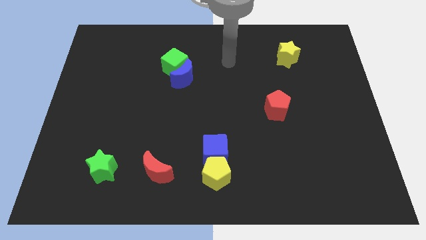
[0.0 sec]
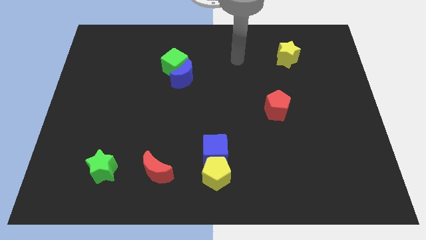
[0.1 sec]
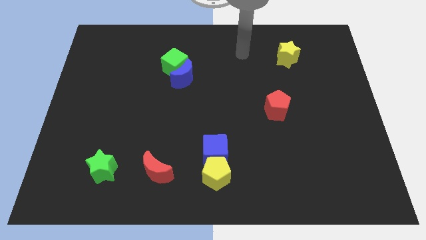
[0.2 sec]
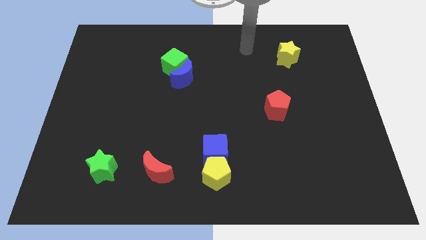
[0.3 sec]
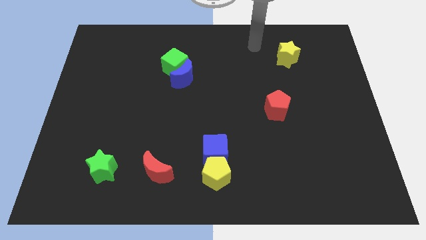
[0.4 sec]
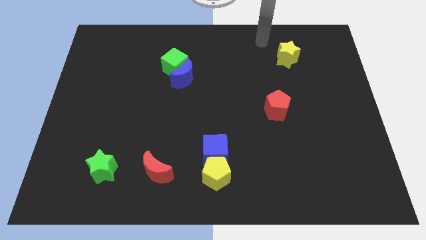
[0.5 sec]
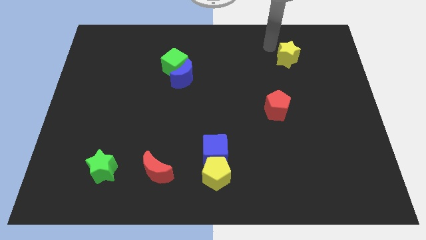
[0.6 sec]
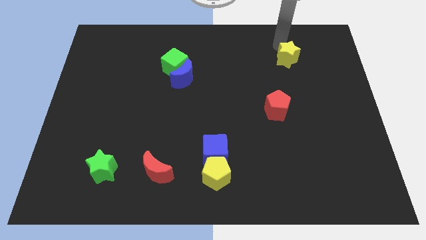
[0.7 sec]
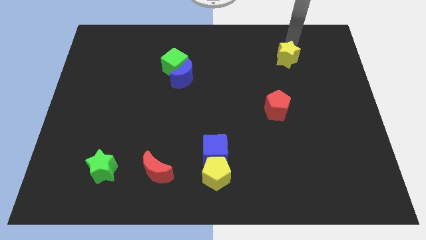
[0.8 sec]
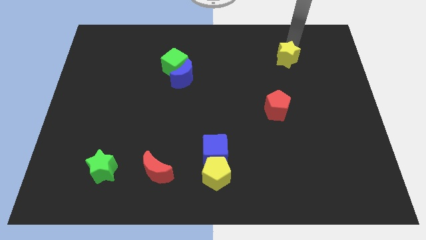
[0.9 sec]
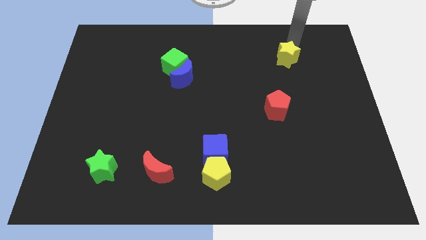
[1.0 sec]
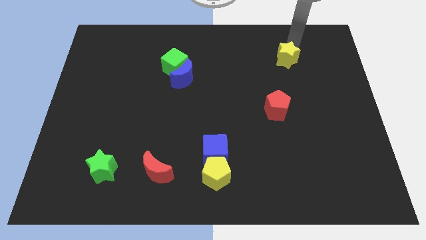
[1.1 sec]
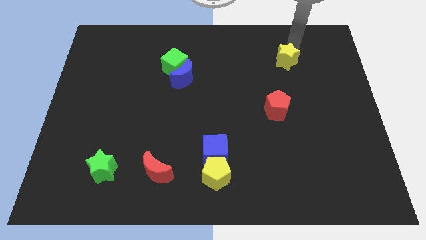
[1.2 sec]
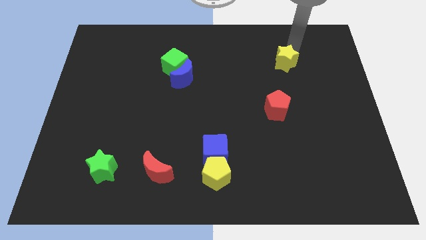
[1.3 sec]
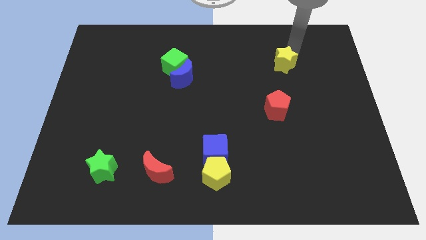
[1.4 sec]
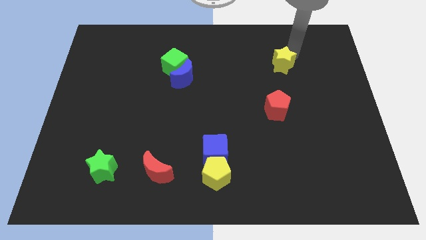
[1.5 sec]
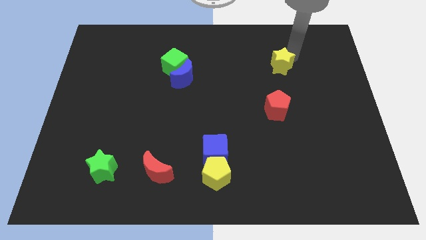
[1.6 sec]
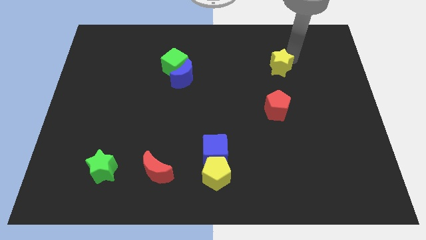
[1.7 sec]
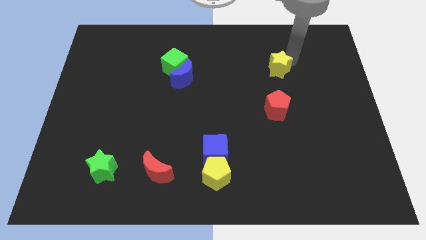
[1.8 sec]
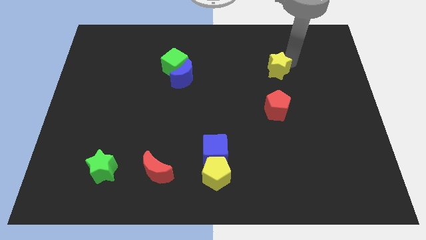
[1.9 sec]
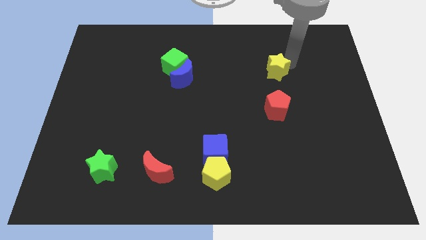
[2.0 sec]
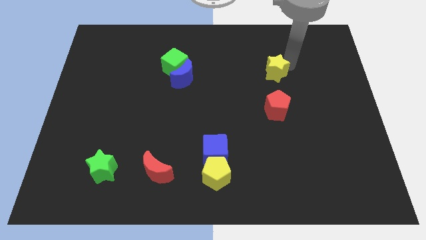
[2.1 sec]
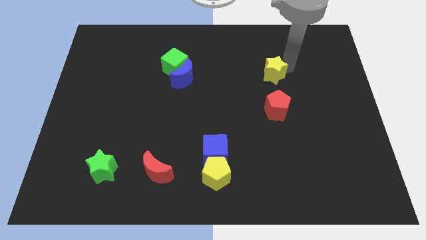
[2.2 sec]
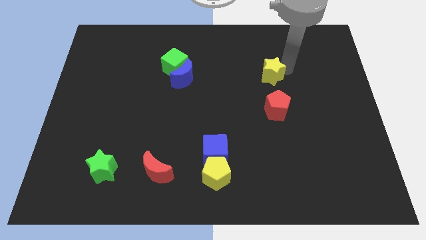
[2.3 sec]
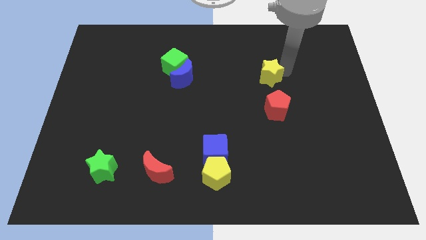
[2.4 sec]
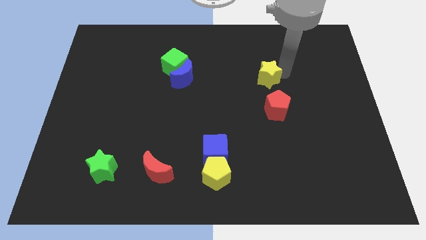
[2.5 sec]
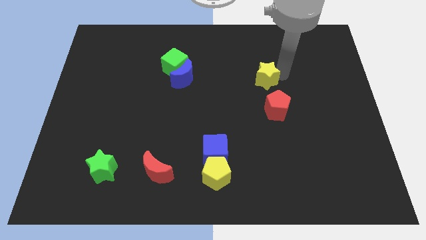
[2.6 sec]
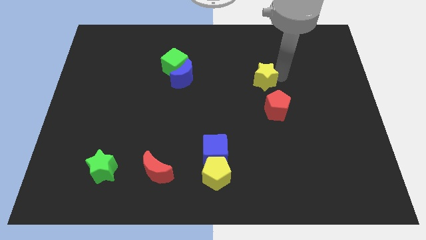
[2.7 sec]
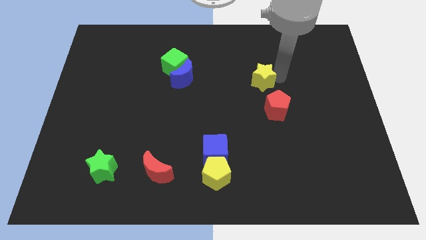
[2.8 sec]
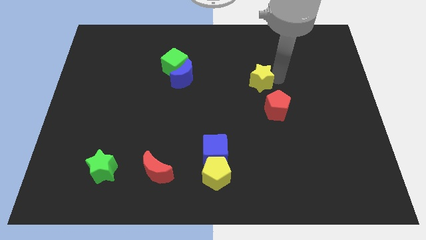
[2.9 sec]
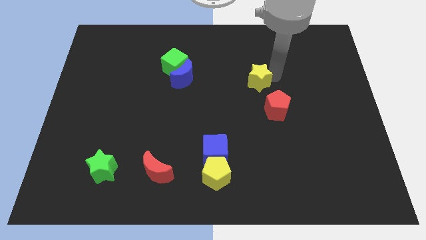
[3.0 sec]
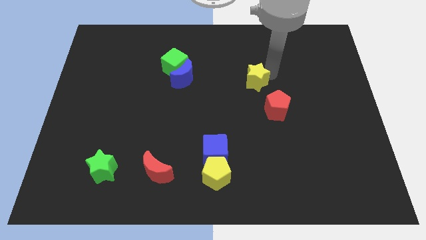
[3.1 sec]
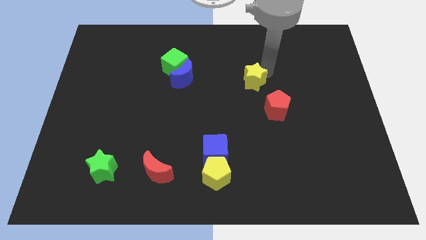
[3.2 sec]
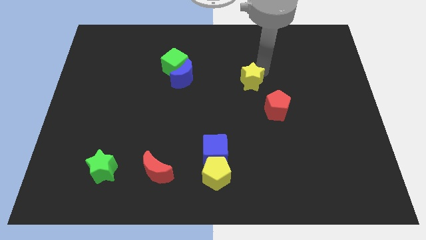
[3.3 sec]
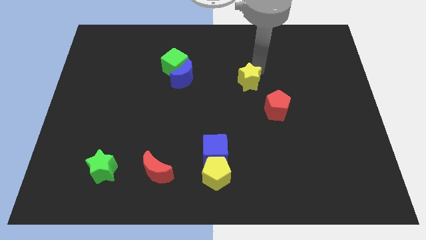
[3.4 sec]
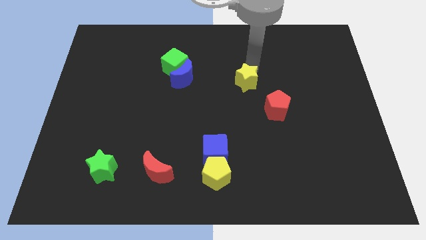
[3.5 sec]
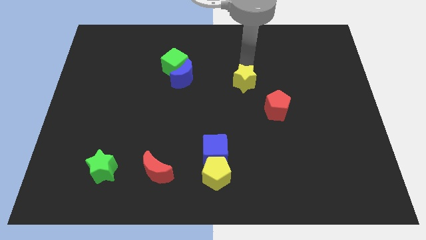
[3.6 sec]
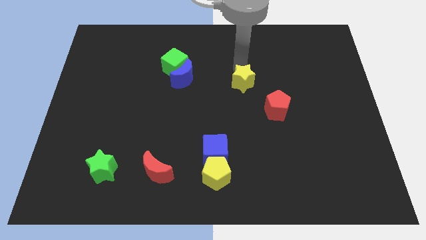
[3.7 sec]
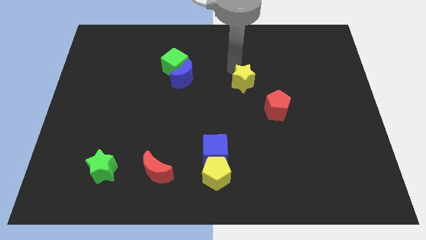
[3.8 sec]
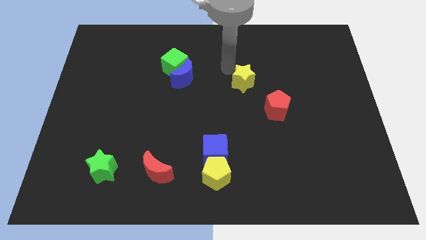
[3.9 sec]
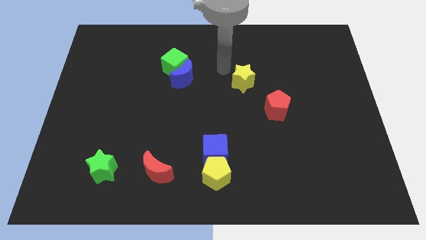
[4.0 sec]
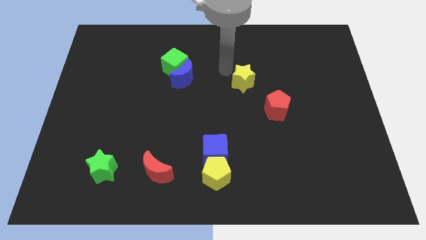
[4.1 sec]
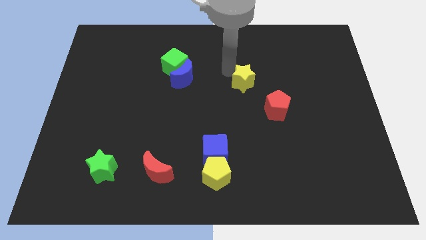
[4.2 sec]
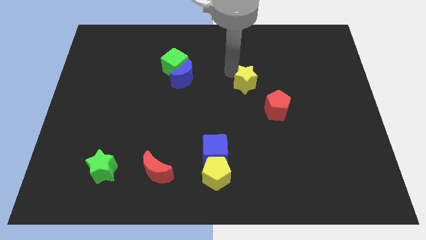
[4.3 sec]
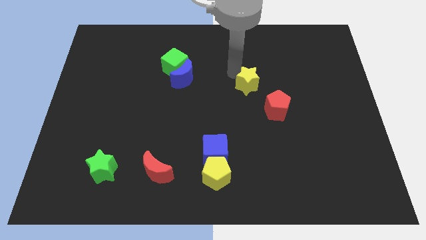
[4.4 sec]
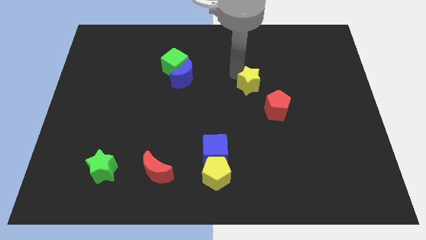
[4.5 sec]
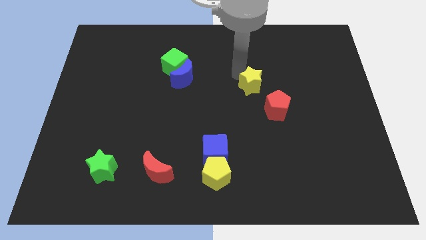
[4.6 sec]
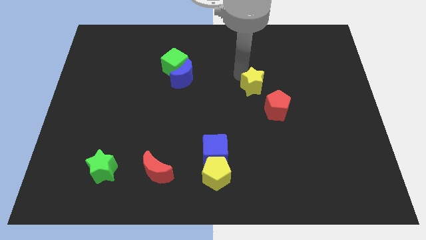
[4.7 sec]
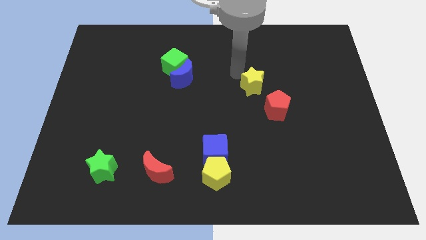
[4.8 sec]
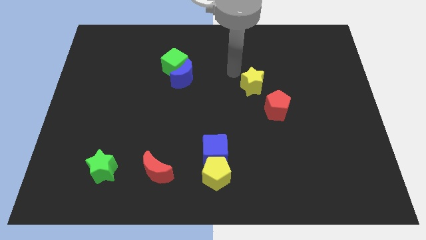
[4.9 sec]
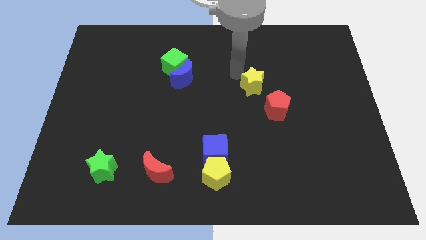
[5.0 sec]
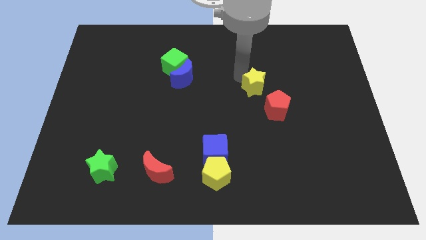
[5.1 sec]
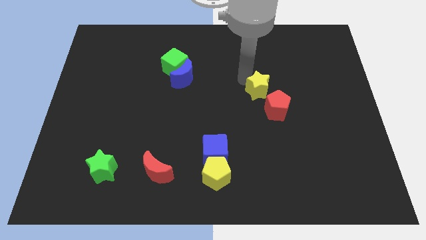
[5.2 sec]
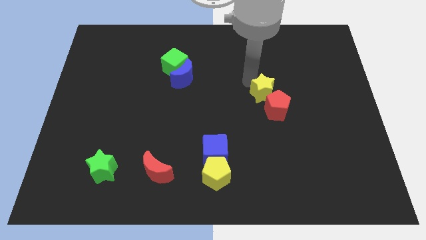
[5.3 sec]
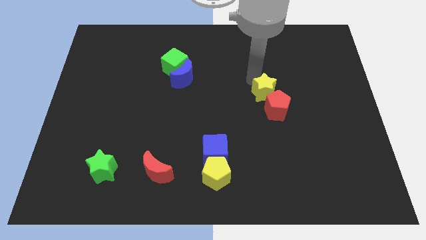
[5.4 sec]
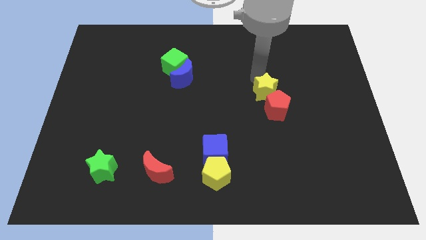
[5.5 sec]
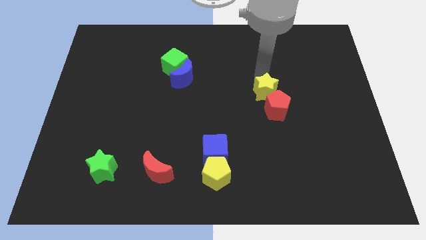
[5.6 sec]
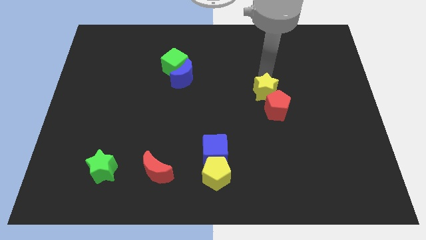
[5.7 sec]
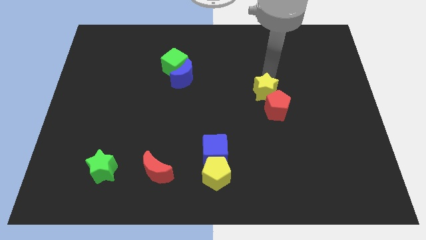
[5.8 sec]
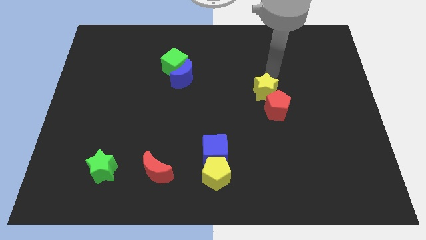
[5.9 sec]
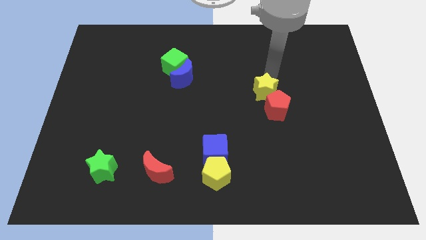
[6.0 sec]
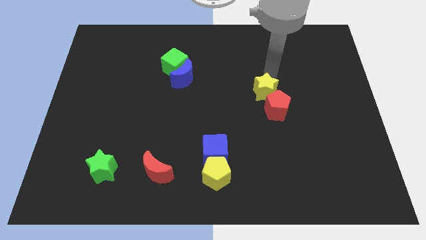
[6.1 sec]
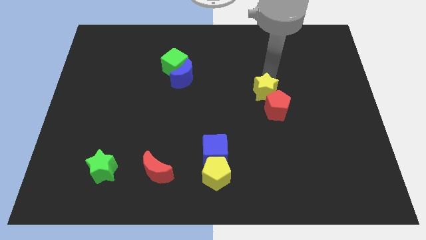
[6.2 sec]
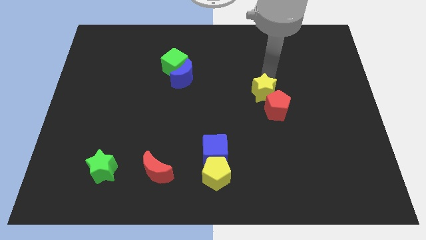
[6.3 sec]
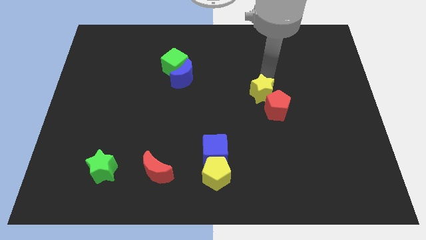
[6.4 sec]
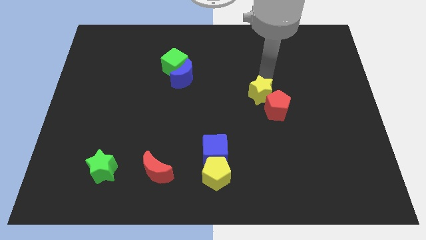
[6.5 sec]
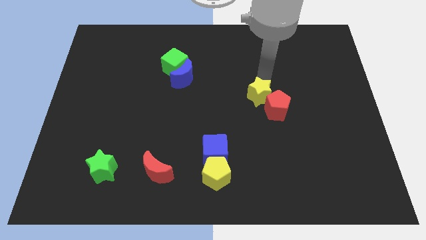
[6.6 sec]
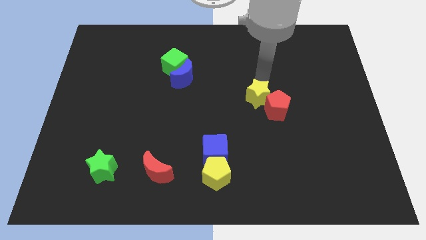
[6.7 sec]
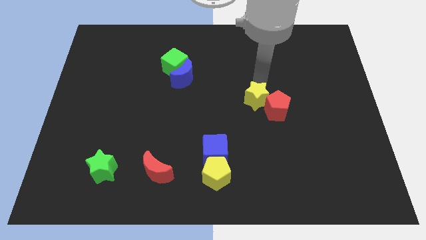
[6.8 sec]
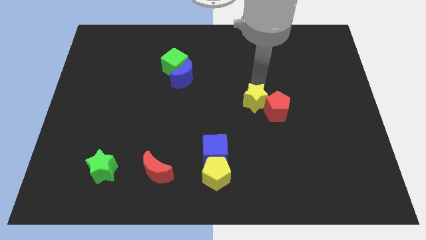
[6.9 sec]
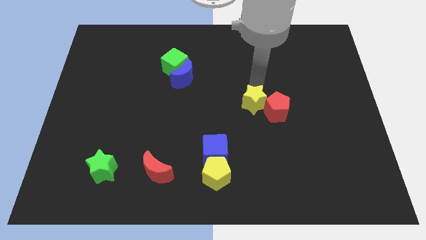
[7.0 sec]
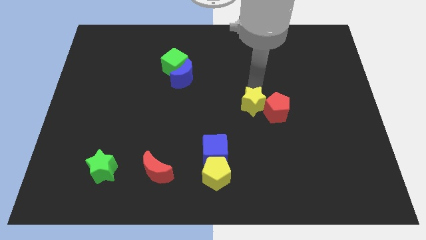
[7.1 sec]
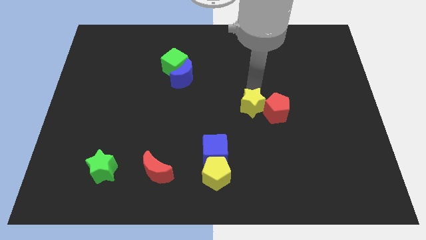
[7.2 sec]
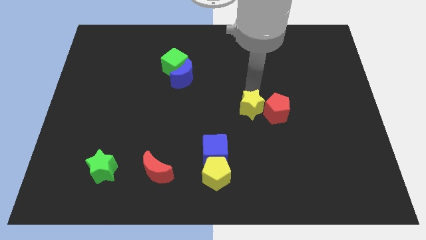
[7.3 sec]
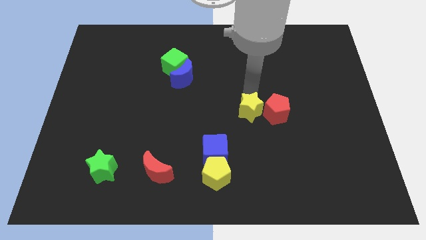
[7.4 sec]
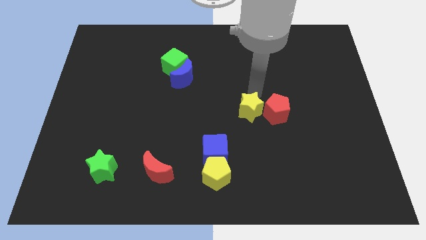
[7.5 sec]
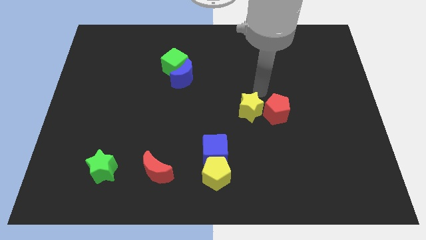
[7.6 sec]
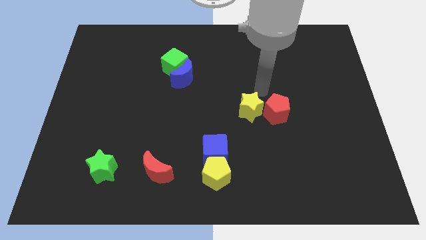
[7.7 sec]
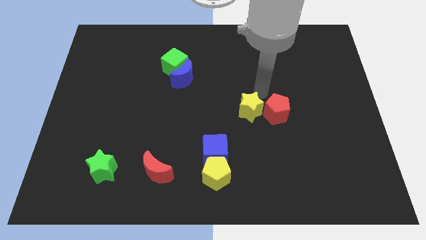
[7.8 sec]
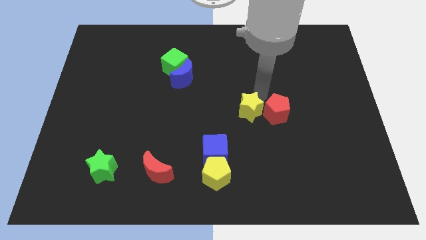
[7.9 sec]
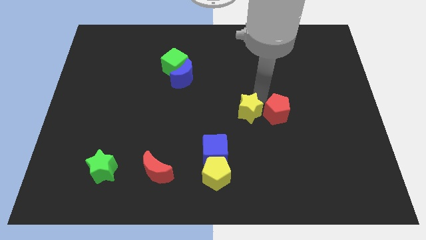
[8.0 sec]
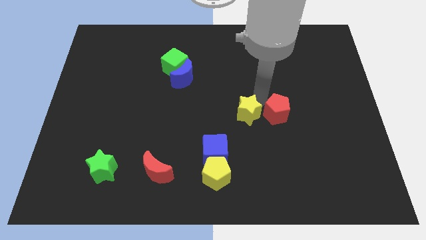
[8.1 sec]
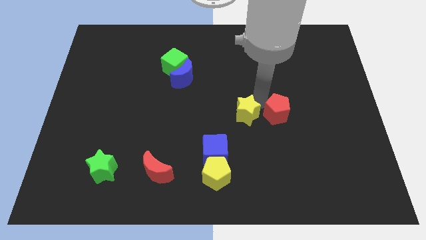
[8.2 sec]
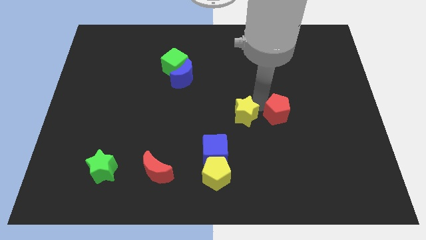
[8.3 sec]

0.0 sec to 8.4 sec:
slide the yellow star to the top right of the blue cube
